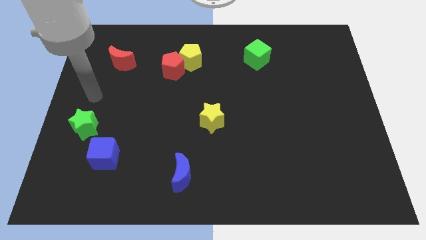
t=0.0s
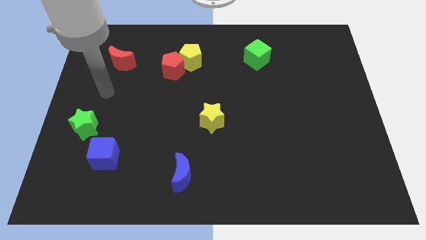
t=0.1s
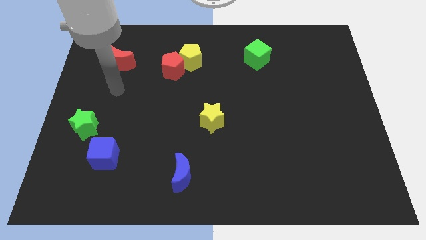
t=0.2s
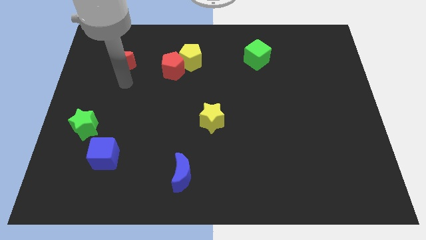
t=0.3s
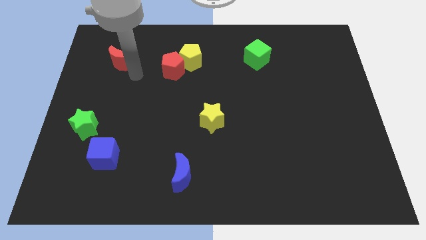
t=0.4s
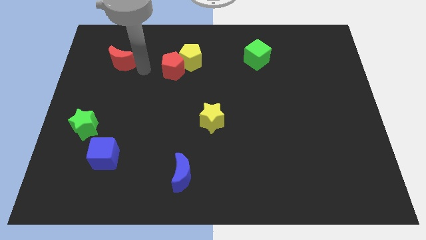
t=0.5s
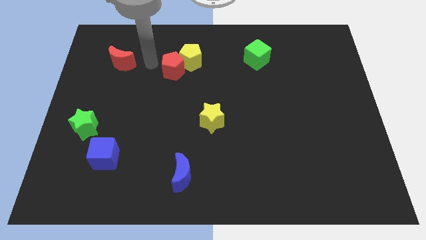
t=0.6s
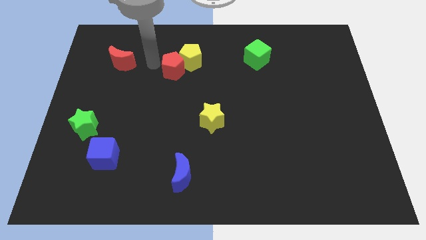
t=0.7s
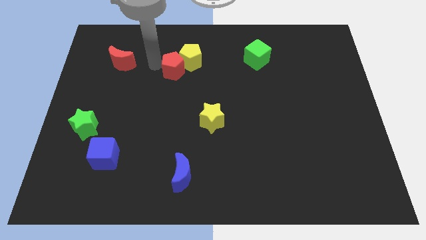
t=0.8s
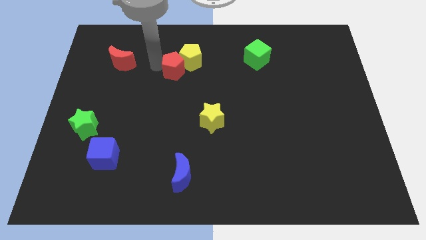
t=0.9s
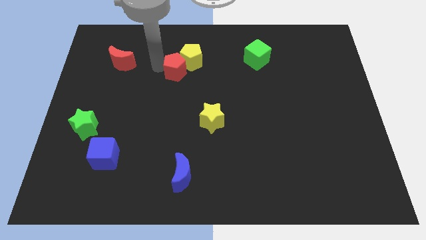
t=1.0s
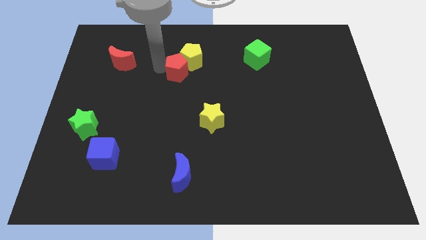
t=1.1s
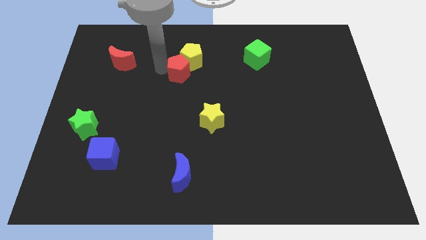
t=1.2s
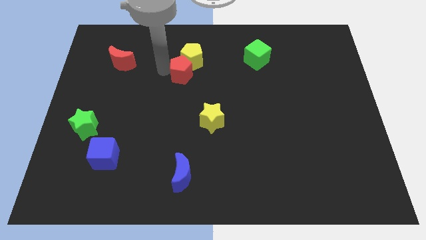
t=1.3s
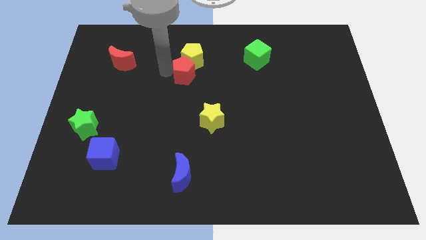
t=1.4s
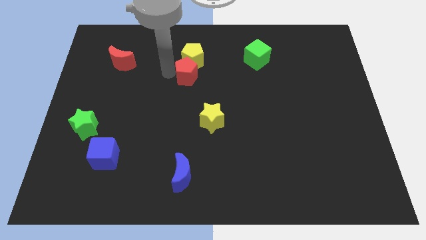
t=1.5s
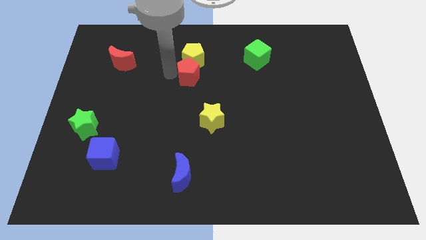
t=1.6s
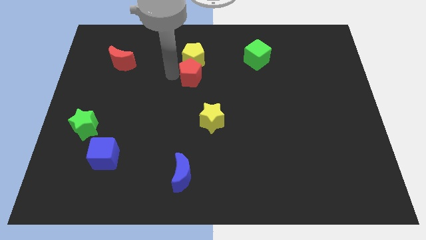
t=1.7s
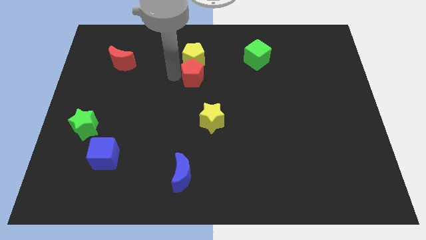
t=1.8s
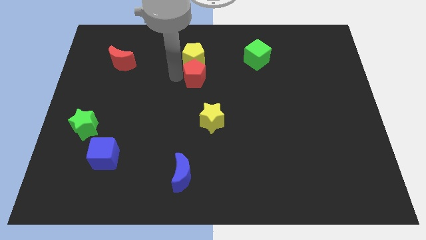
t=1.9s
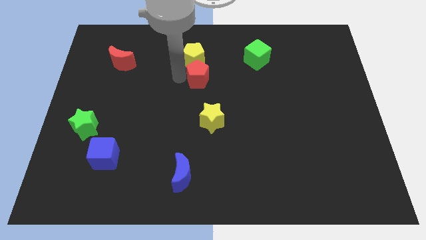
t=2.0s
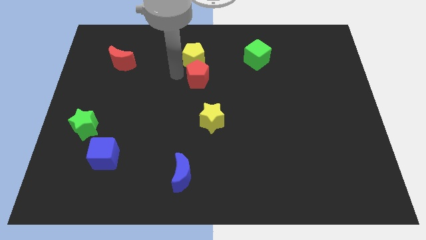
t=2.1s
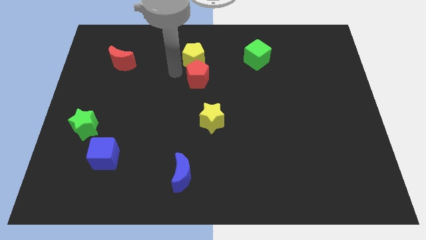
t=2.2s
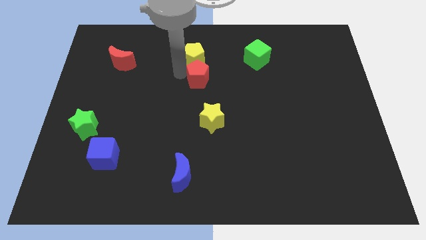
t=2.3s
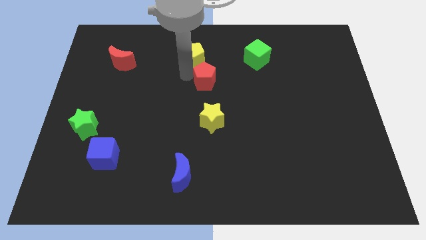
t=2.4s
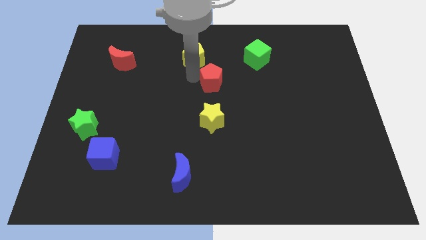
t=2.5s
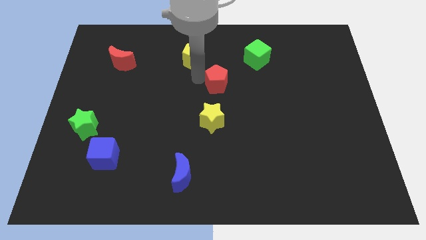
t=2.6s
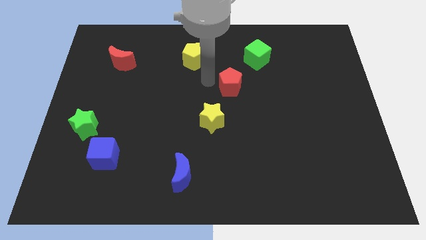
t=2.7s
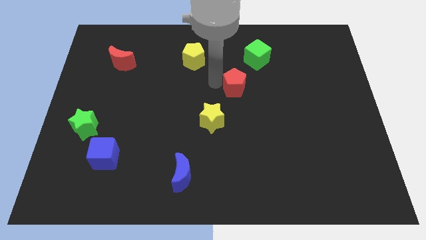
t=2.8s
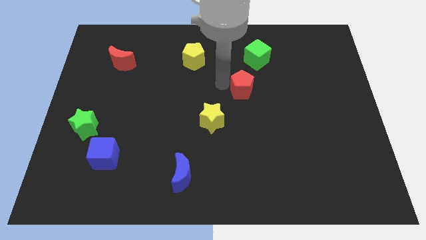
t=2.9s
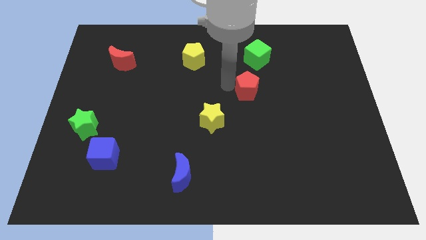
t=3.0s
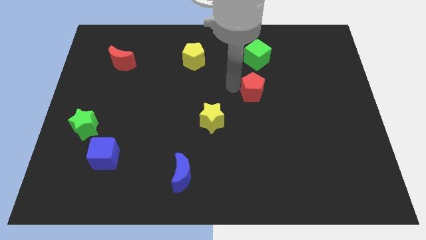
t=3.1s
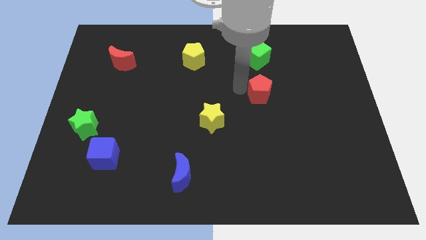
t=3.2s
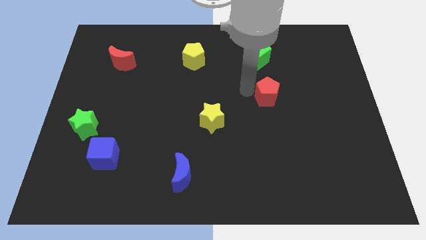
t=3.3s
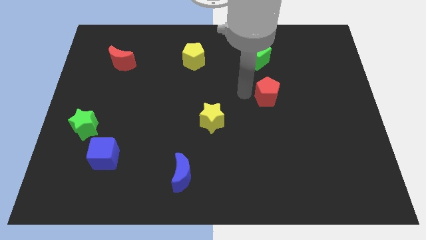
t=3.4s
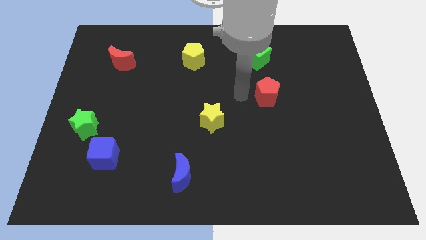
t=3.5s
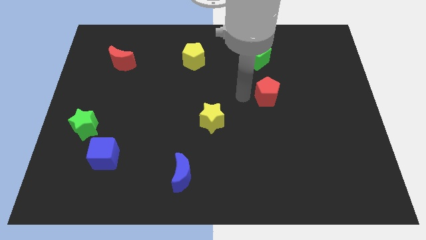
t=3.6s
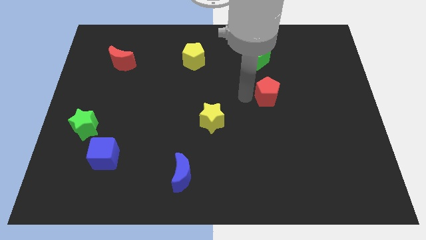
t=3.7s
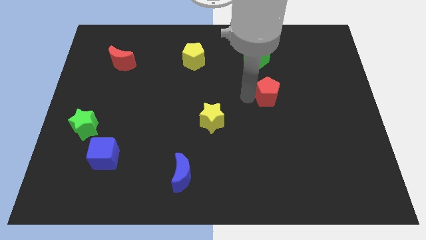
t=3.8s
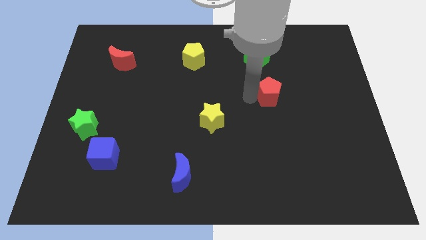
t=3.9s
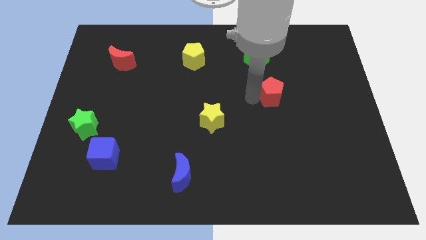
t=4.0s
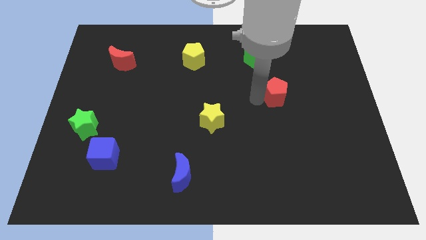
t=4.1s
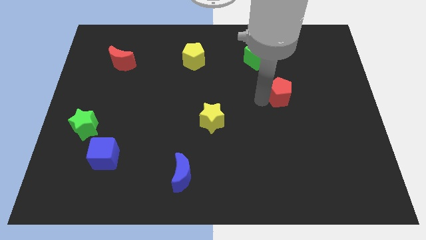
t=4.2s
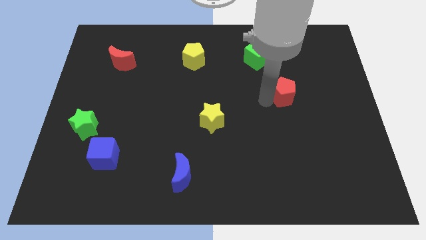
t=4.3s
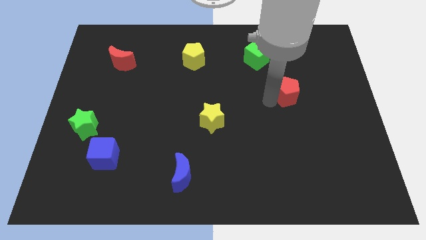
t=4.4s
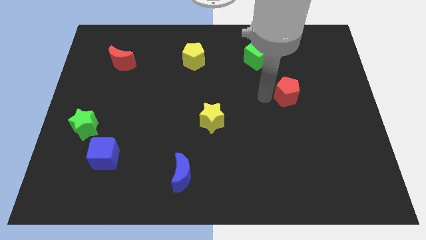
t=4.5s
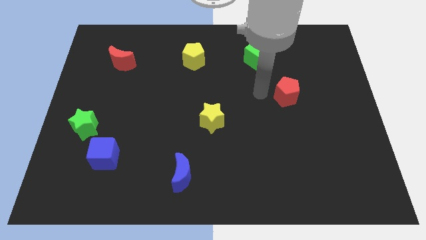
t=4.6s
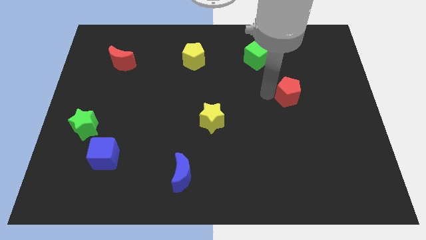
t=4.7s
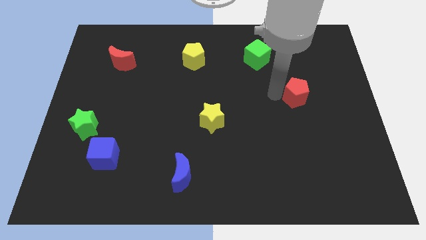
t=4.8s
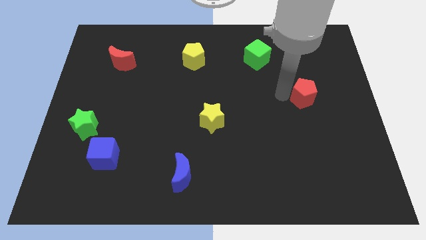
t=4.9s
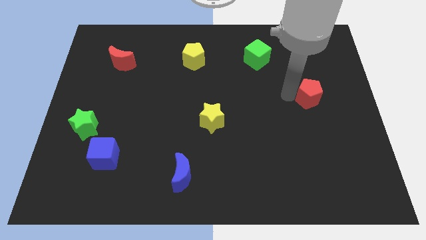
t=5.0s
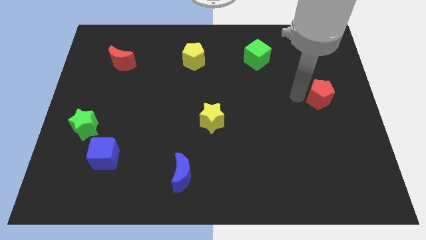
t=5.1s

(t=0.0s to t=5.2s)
put the red pentagon to the right side

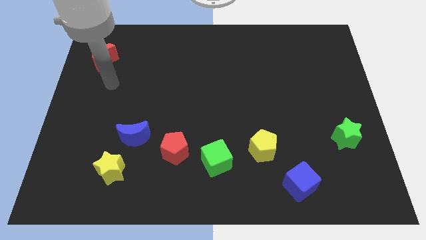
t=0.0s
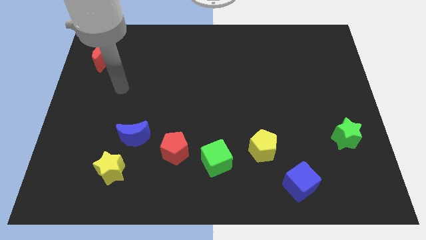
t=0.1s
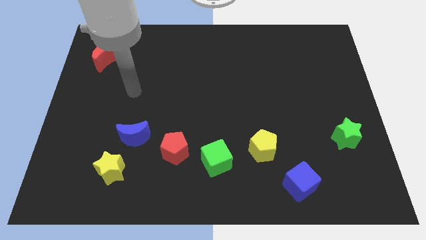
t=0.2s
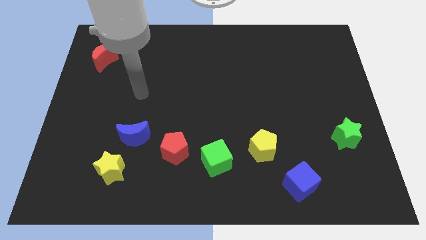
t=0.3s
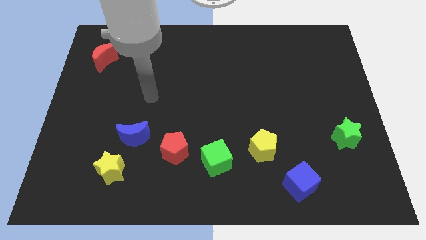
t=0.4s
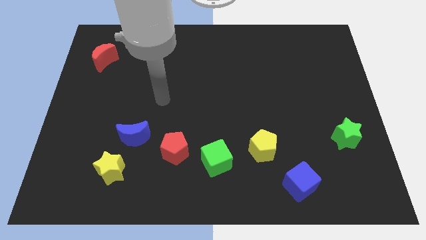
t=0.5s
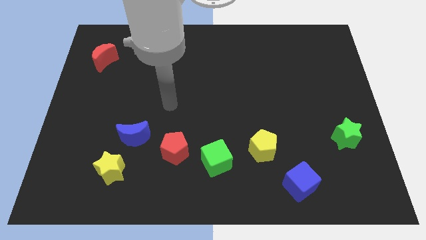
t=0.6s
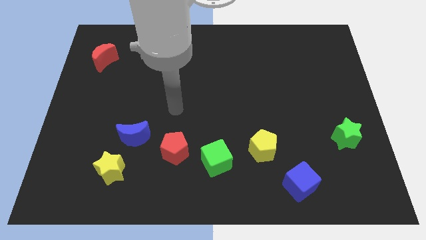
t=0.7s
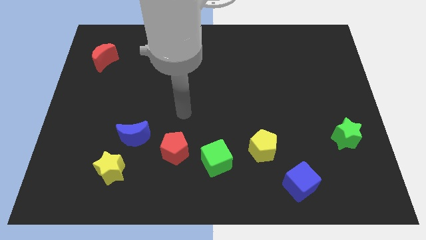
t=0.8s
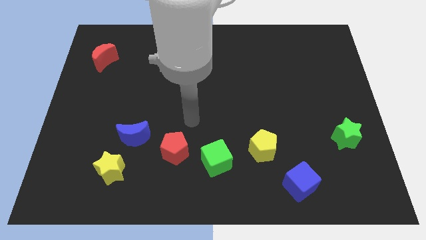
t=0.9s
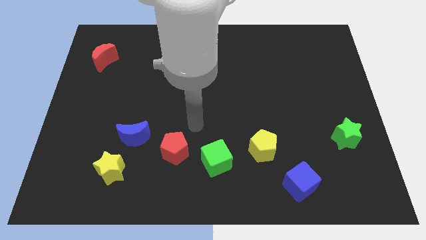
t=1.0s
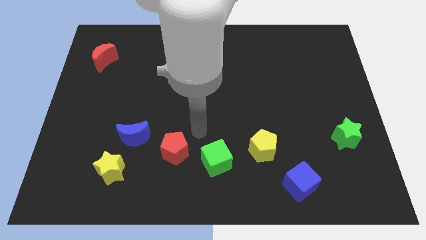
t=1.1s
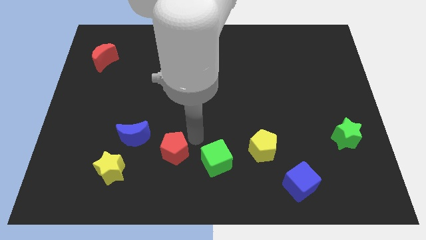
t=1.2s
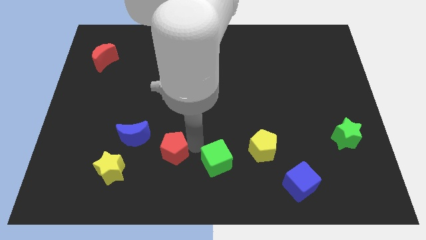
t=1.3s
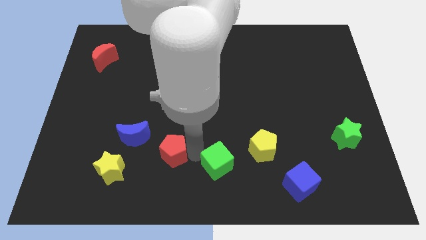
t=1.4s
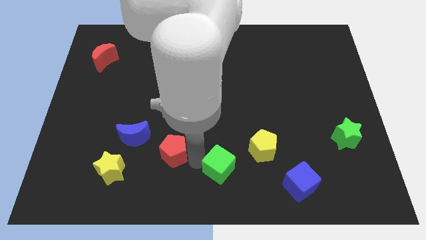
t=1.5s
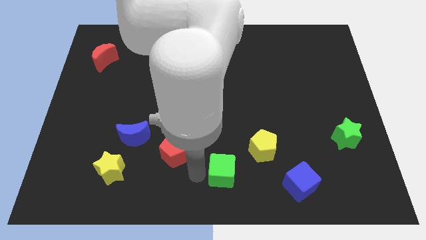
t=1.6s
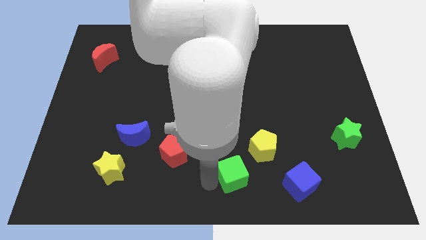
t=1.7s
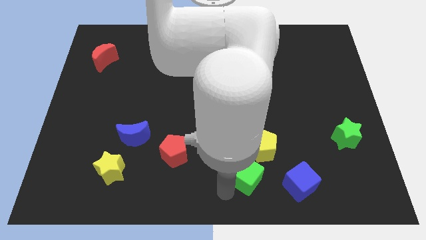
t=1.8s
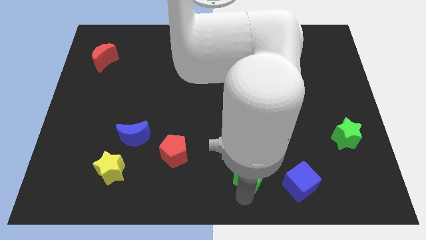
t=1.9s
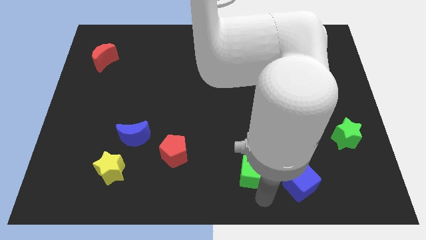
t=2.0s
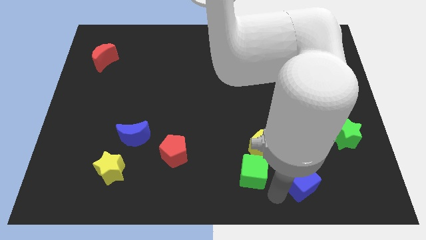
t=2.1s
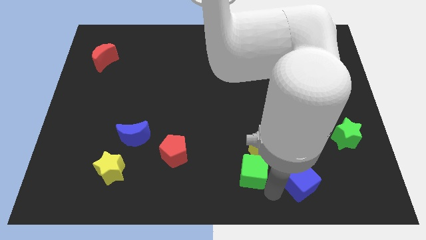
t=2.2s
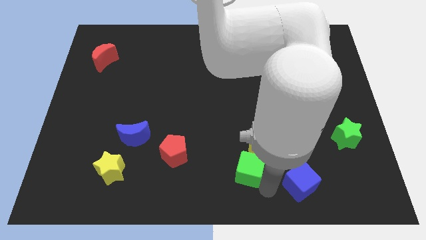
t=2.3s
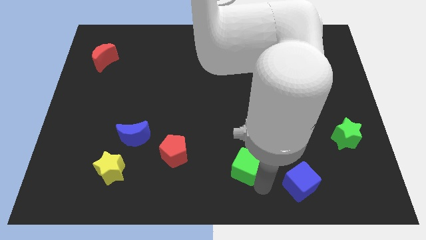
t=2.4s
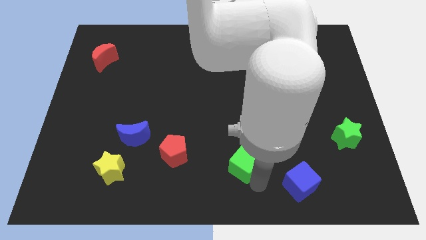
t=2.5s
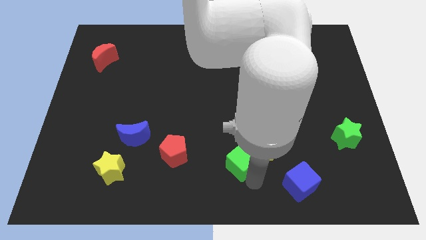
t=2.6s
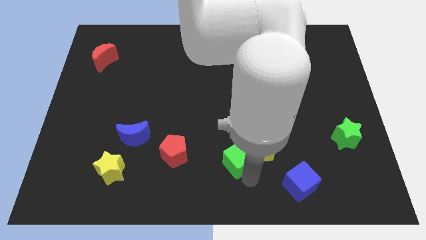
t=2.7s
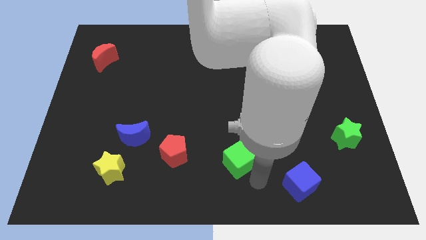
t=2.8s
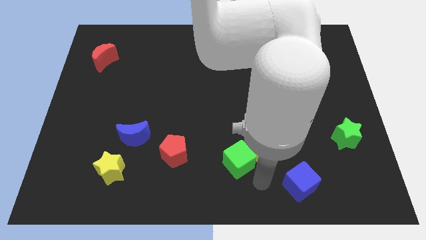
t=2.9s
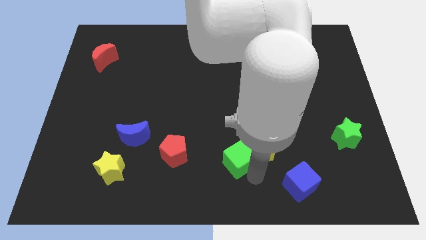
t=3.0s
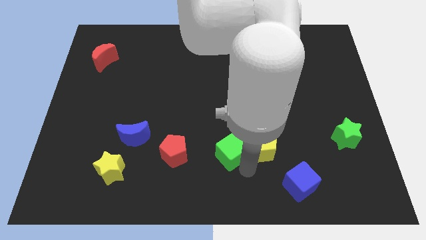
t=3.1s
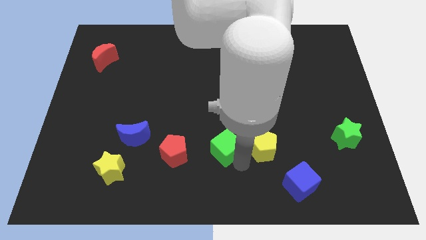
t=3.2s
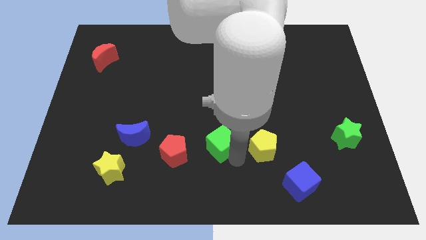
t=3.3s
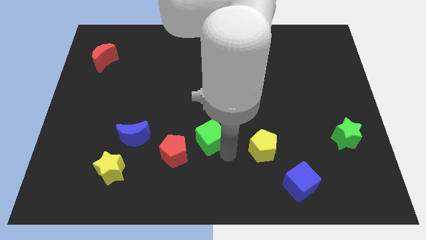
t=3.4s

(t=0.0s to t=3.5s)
slide the green cube to the center of the board
